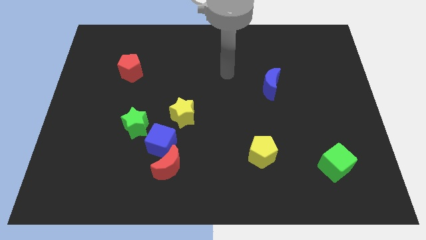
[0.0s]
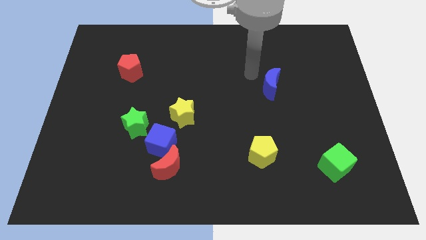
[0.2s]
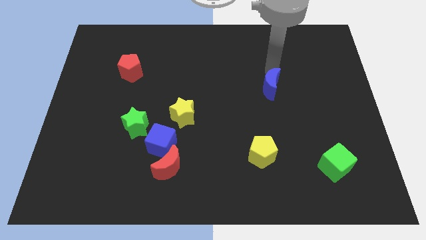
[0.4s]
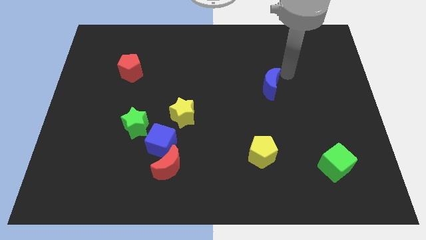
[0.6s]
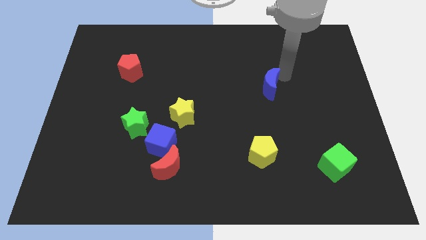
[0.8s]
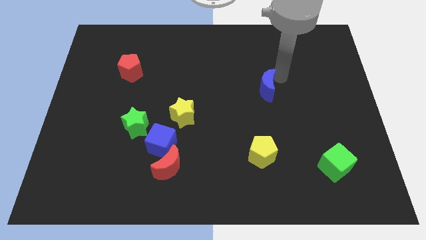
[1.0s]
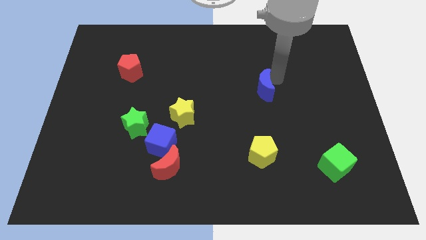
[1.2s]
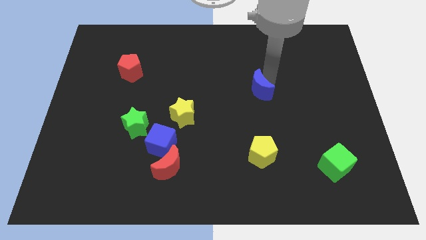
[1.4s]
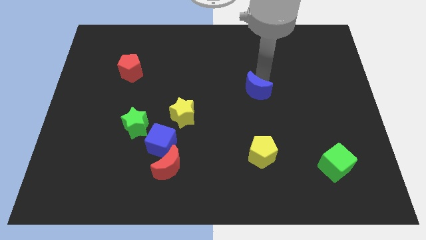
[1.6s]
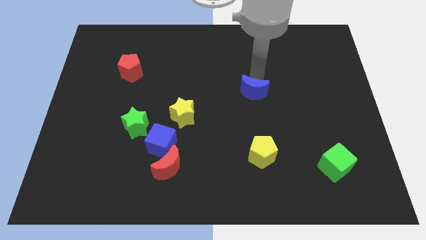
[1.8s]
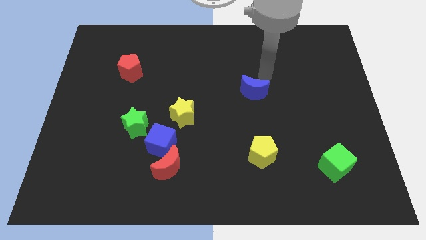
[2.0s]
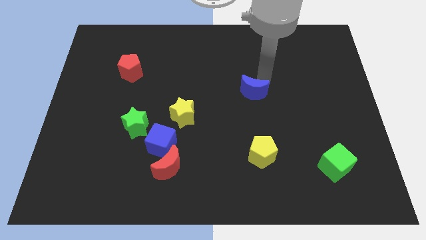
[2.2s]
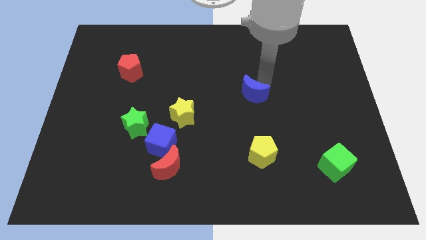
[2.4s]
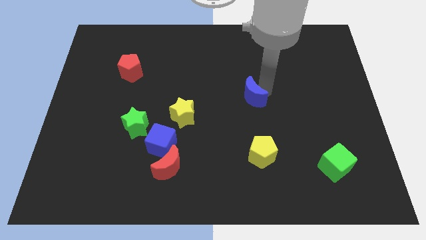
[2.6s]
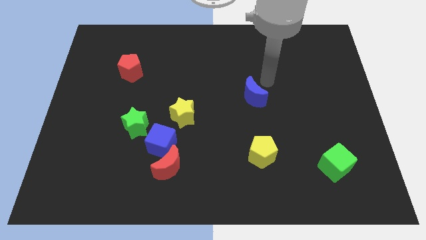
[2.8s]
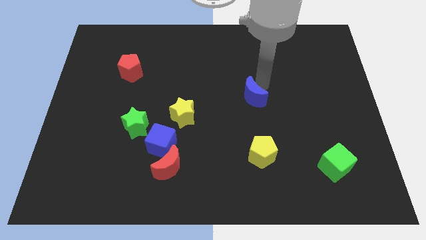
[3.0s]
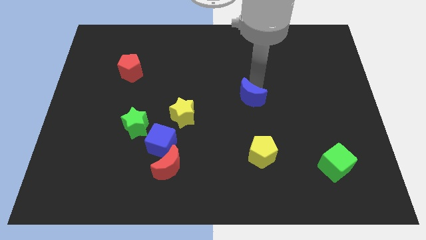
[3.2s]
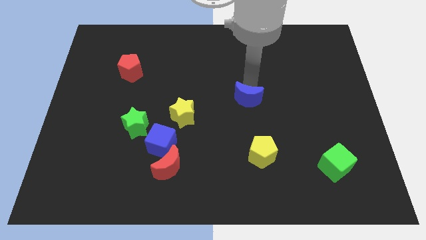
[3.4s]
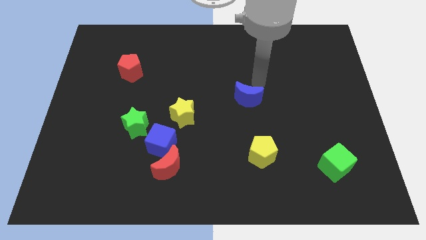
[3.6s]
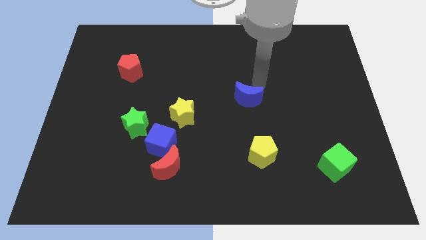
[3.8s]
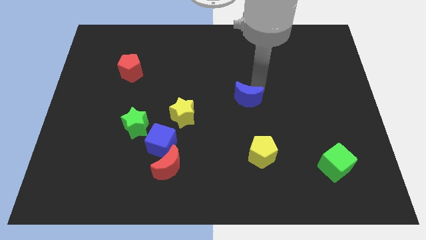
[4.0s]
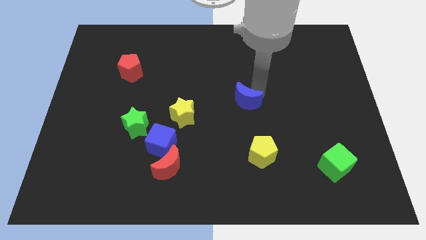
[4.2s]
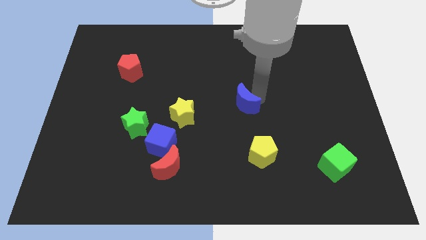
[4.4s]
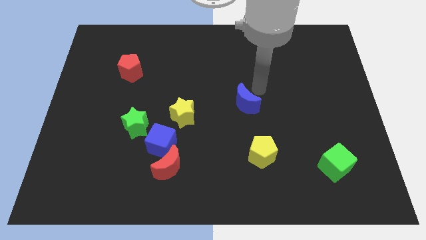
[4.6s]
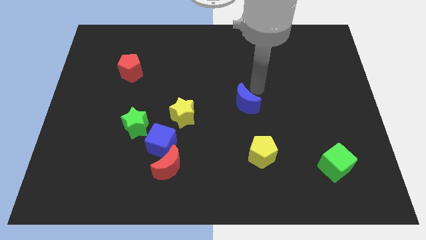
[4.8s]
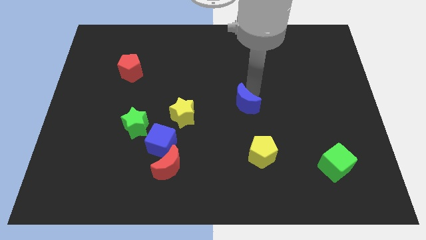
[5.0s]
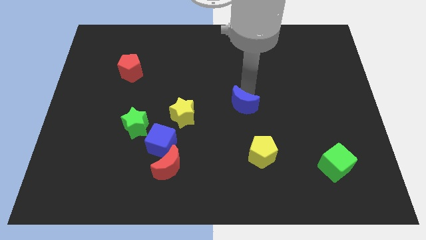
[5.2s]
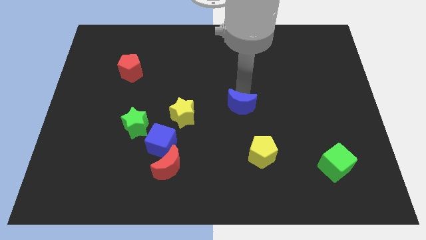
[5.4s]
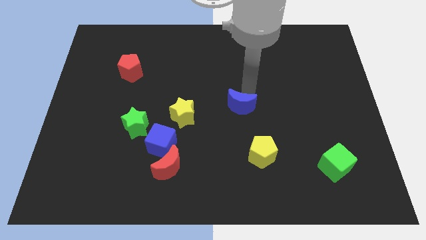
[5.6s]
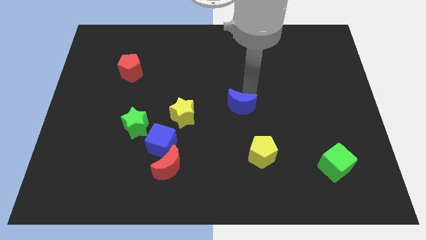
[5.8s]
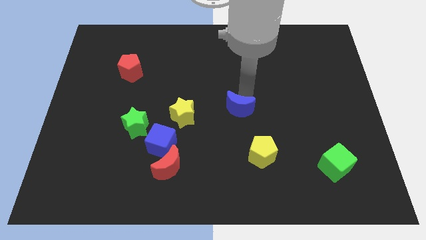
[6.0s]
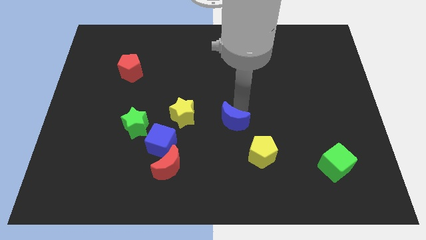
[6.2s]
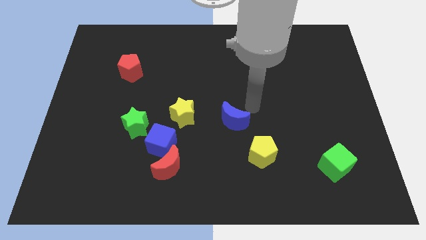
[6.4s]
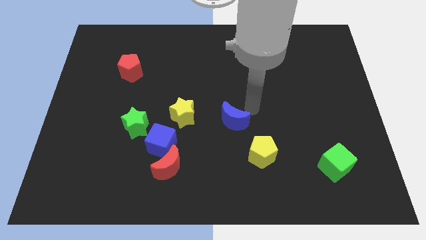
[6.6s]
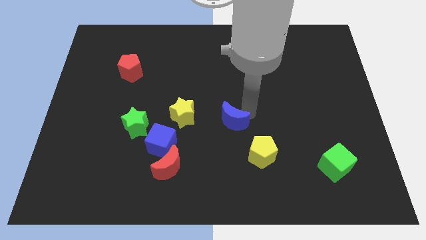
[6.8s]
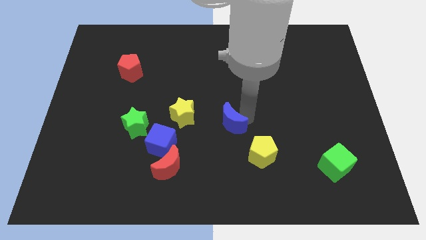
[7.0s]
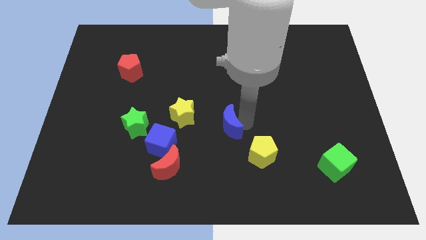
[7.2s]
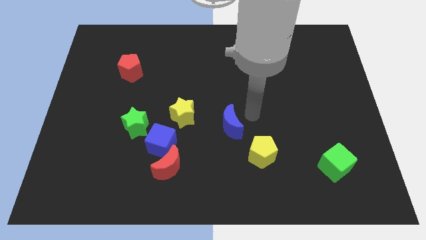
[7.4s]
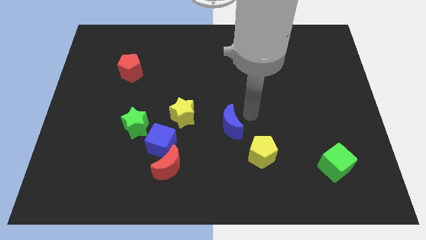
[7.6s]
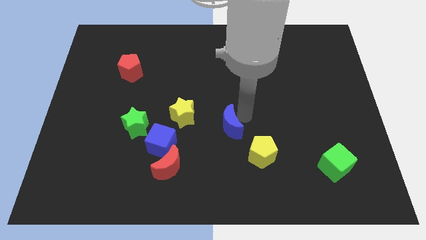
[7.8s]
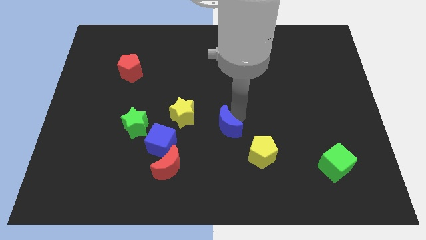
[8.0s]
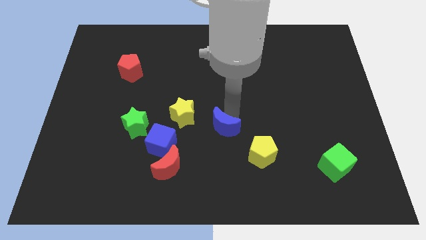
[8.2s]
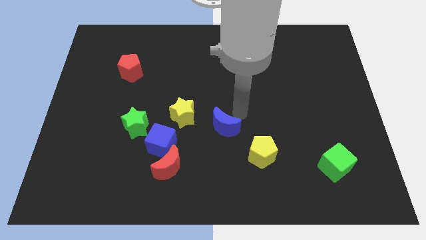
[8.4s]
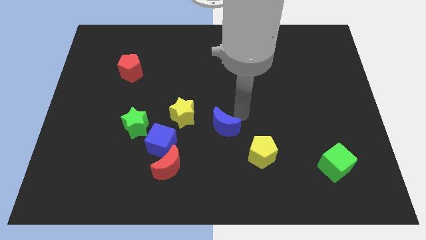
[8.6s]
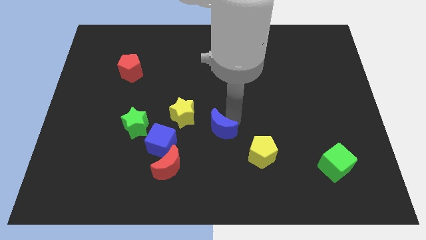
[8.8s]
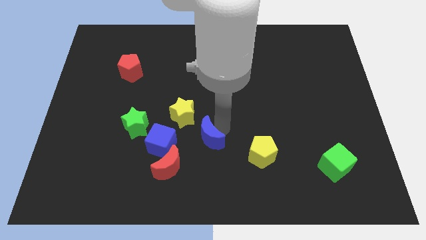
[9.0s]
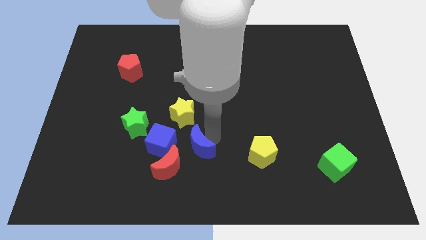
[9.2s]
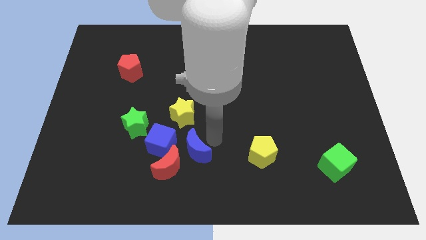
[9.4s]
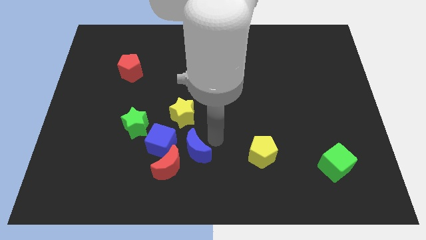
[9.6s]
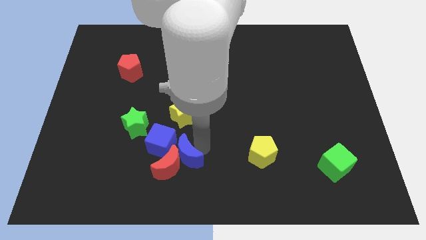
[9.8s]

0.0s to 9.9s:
put the blue moon towards the red moon

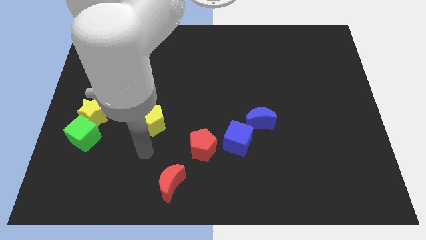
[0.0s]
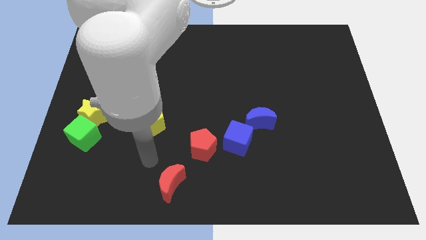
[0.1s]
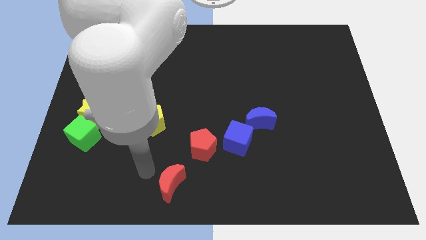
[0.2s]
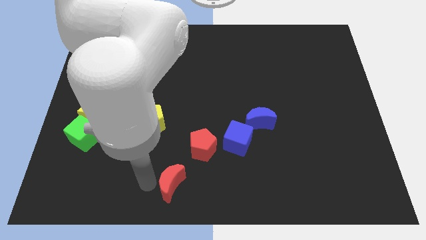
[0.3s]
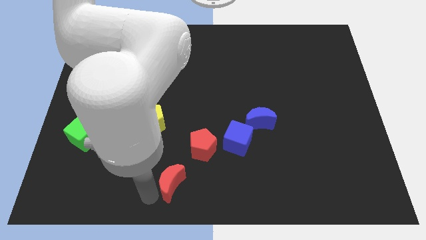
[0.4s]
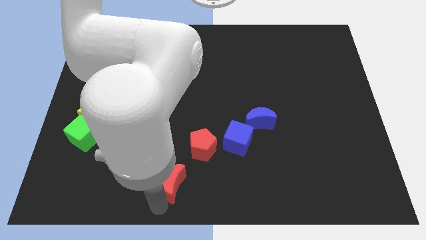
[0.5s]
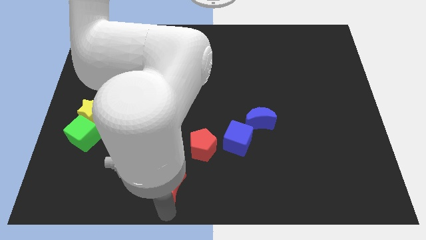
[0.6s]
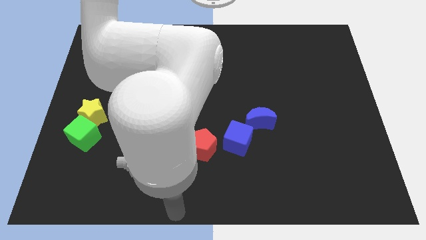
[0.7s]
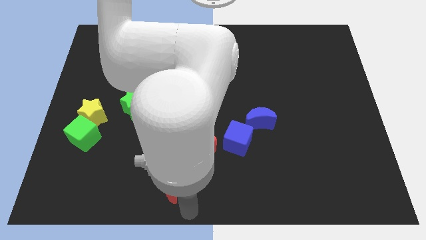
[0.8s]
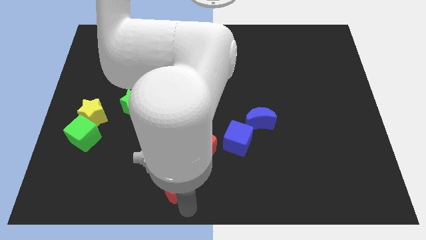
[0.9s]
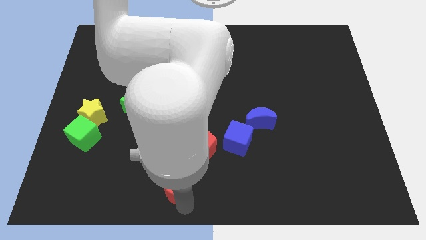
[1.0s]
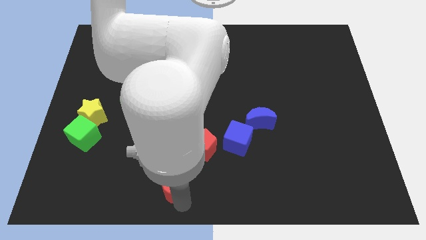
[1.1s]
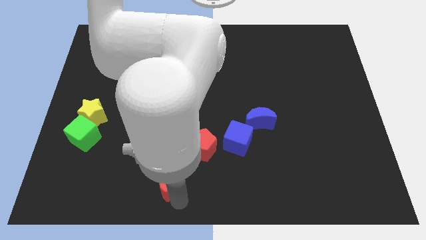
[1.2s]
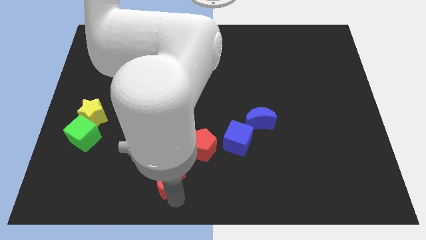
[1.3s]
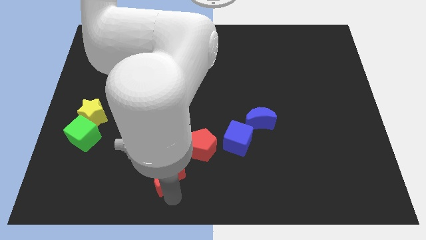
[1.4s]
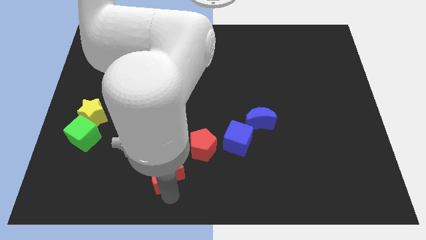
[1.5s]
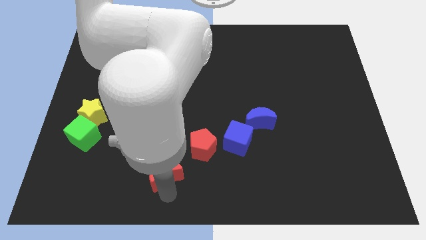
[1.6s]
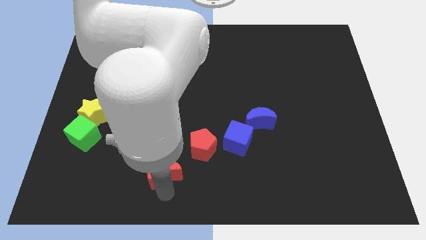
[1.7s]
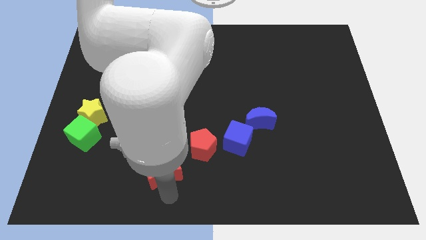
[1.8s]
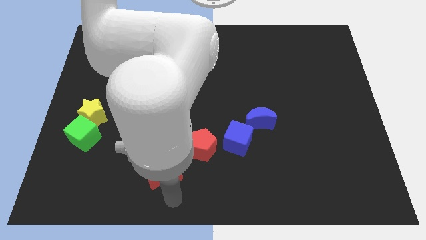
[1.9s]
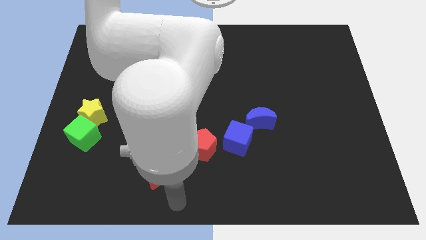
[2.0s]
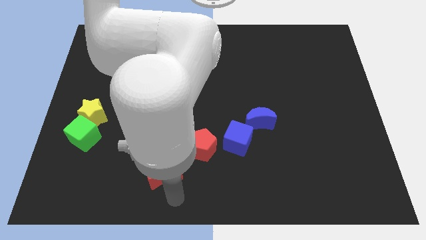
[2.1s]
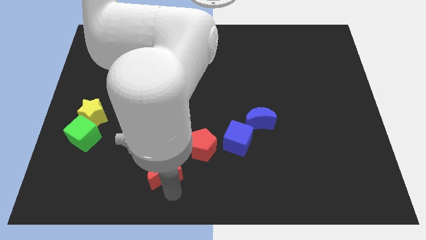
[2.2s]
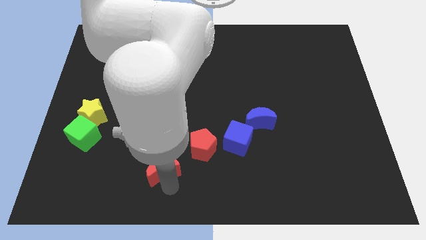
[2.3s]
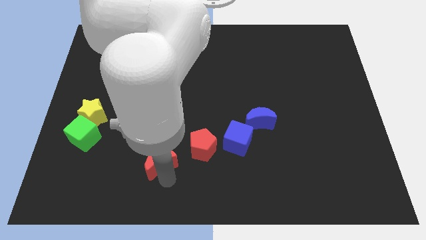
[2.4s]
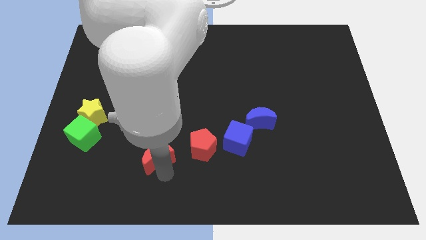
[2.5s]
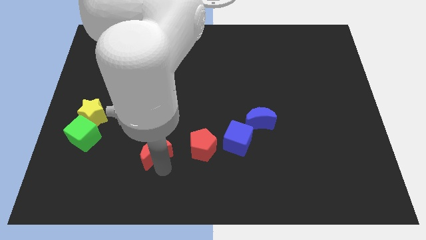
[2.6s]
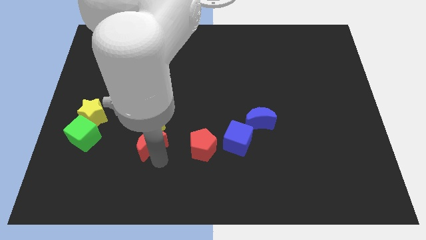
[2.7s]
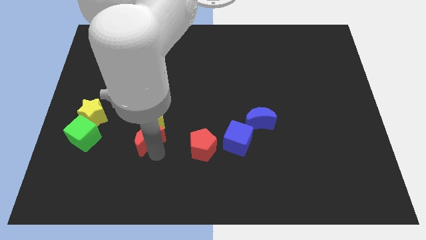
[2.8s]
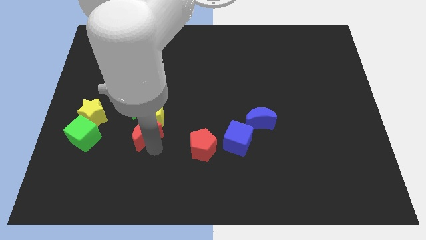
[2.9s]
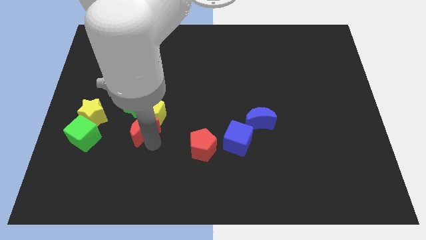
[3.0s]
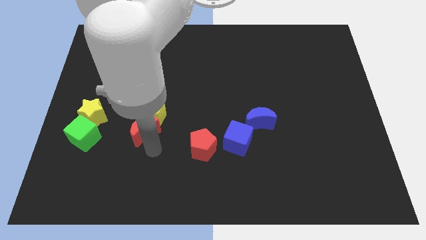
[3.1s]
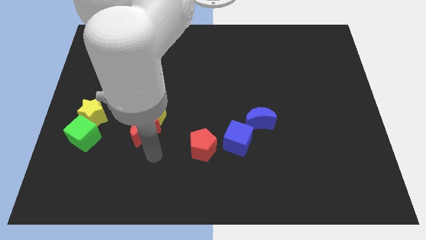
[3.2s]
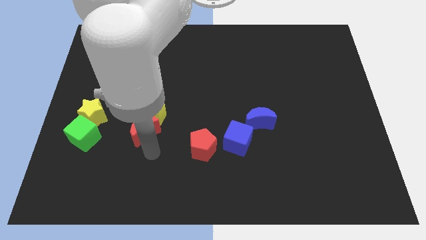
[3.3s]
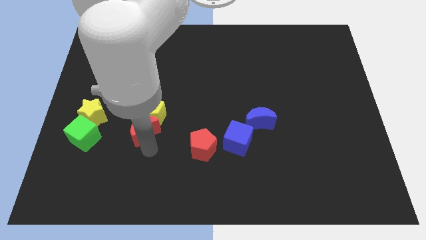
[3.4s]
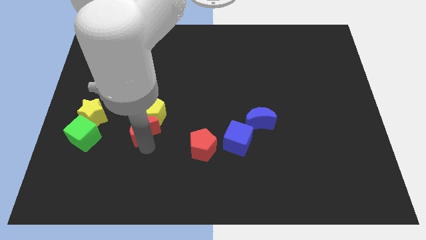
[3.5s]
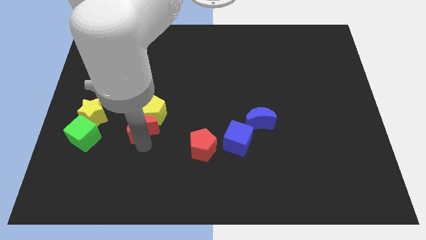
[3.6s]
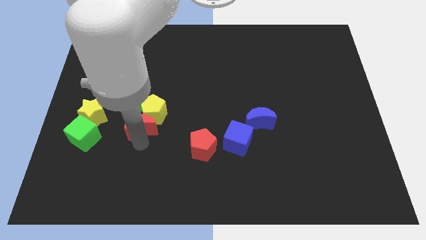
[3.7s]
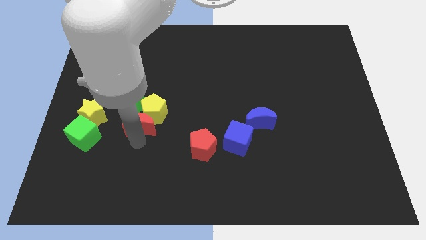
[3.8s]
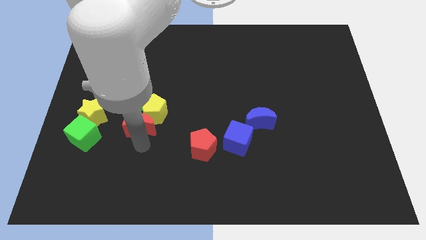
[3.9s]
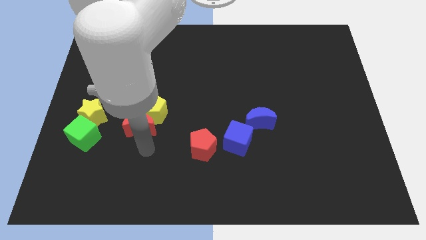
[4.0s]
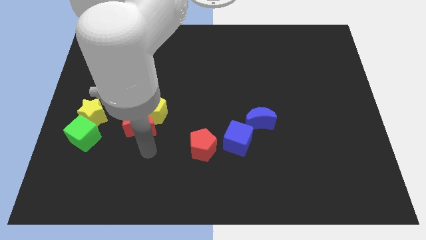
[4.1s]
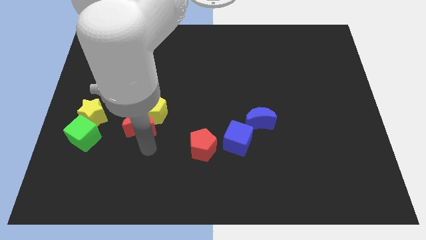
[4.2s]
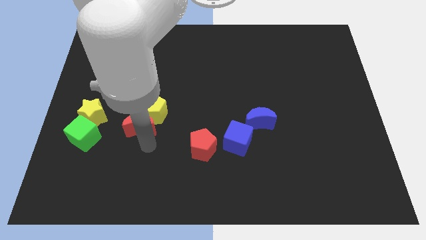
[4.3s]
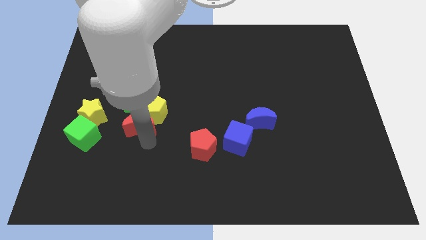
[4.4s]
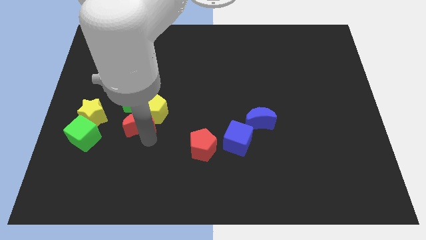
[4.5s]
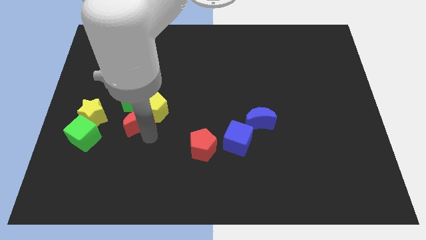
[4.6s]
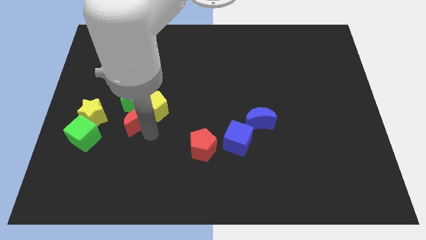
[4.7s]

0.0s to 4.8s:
push the red moon next to the green star
